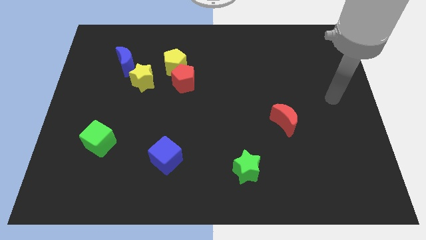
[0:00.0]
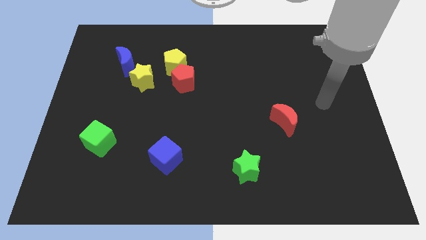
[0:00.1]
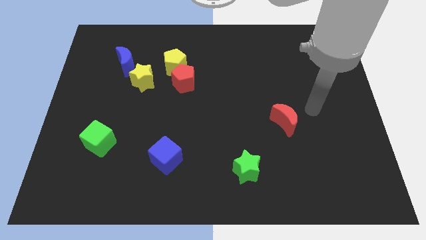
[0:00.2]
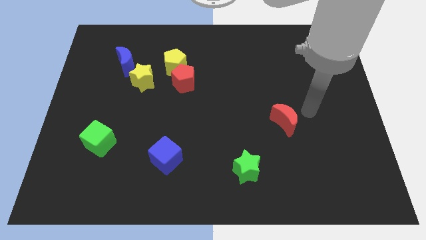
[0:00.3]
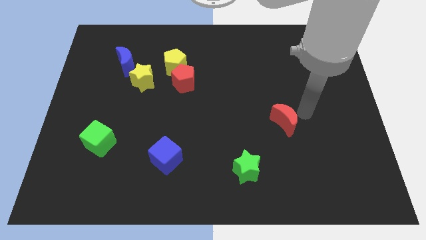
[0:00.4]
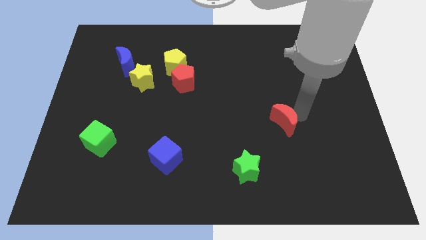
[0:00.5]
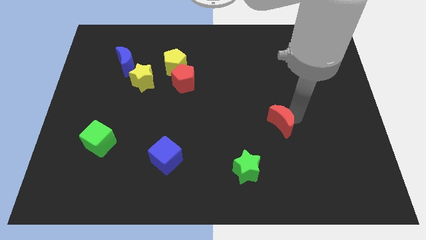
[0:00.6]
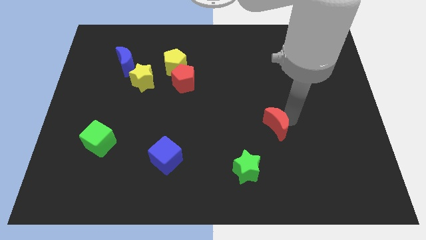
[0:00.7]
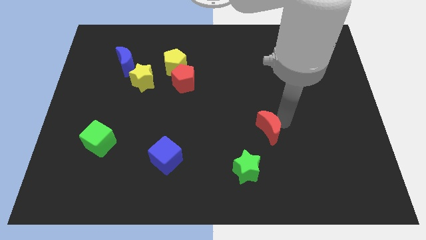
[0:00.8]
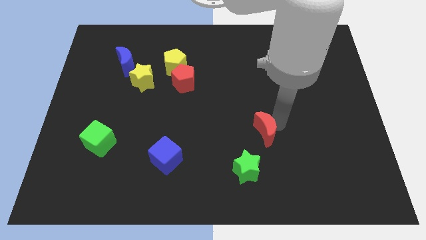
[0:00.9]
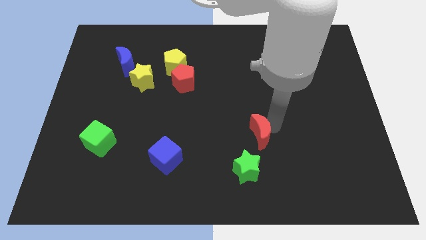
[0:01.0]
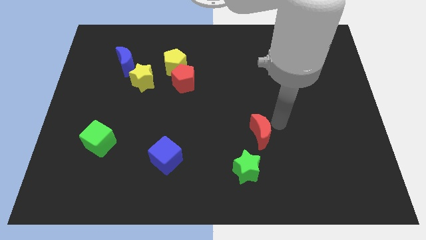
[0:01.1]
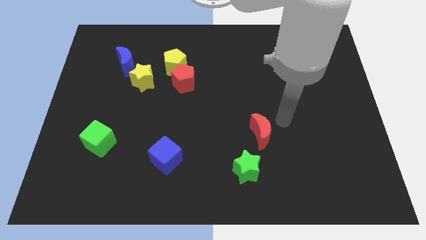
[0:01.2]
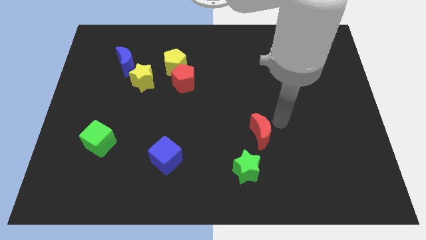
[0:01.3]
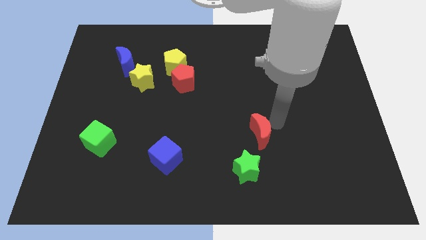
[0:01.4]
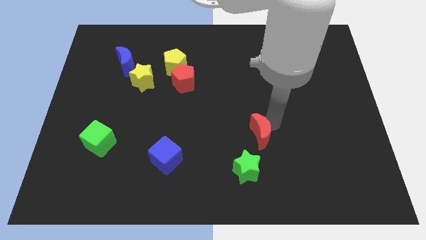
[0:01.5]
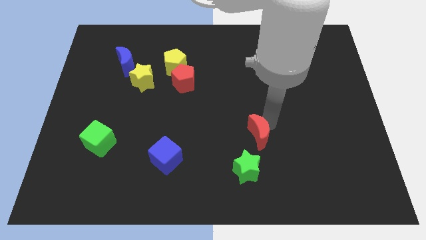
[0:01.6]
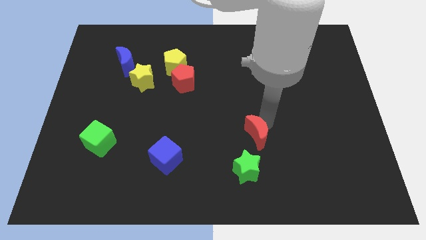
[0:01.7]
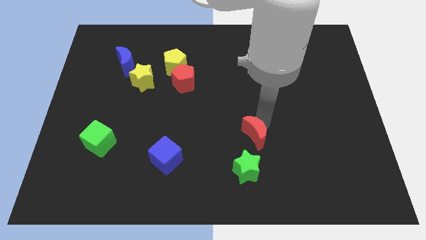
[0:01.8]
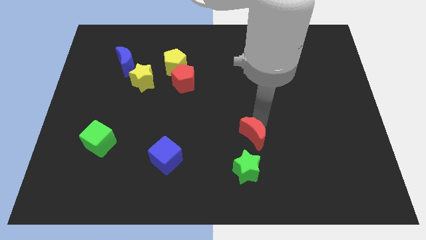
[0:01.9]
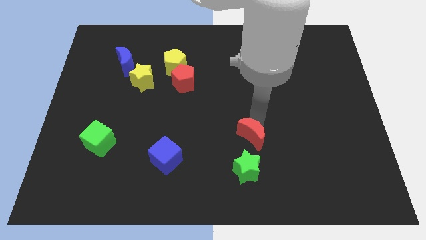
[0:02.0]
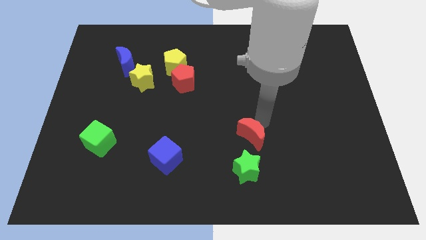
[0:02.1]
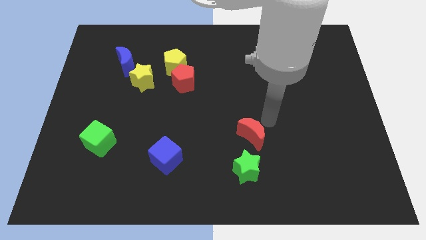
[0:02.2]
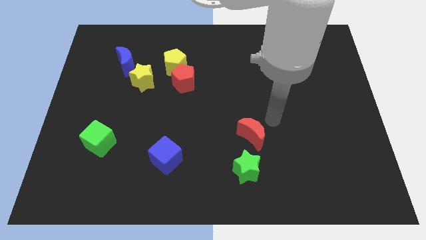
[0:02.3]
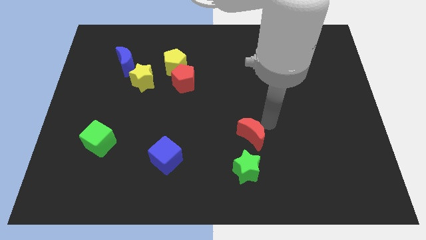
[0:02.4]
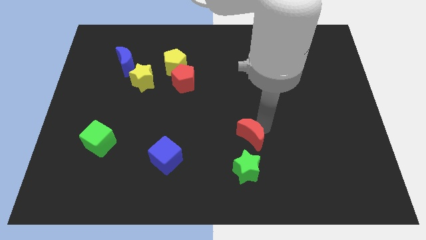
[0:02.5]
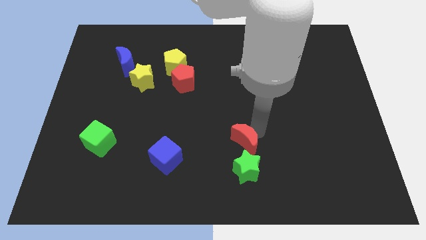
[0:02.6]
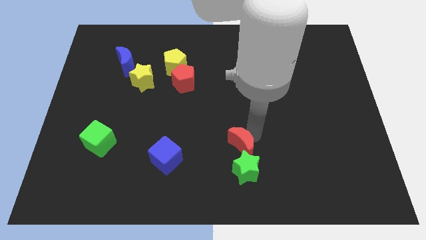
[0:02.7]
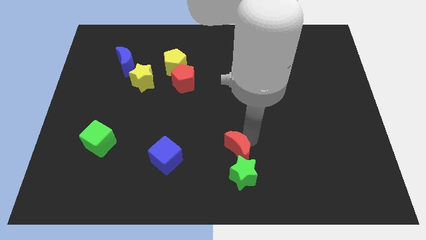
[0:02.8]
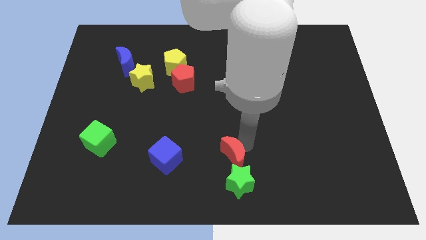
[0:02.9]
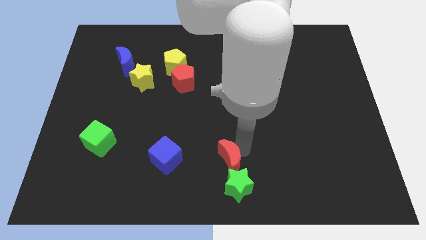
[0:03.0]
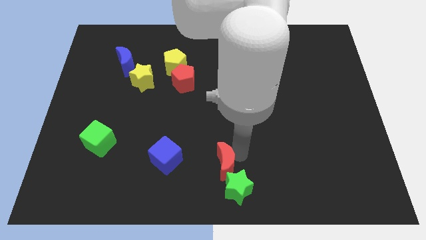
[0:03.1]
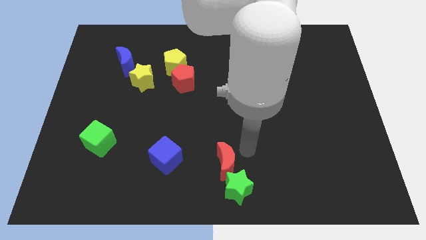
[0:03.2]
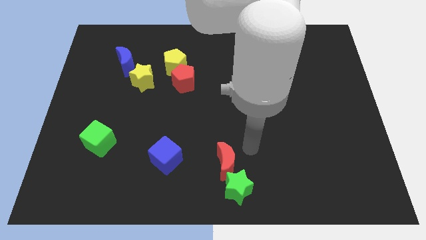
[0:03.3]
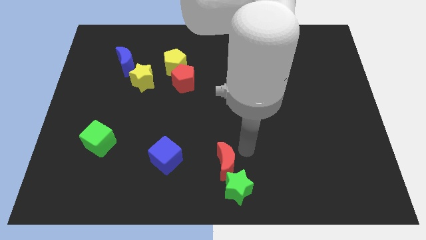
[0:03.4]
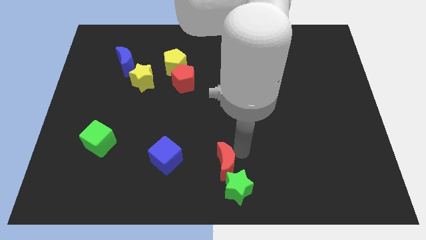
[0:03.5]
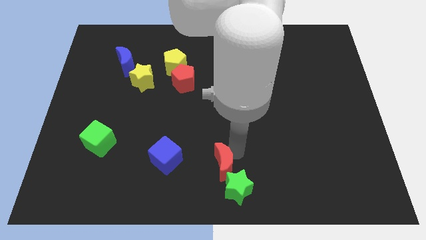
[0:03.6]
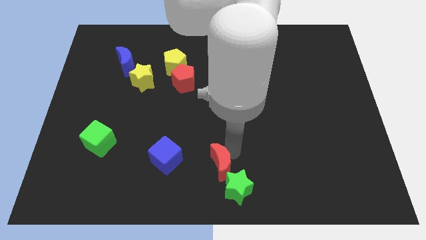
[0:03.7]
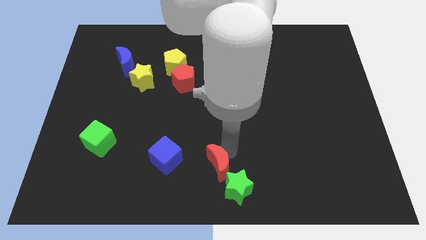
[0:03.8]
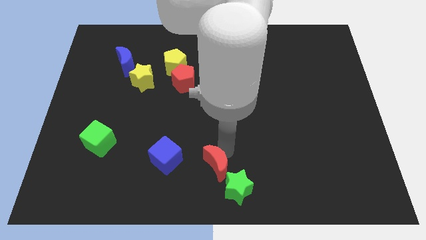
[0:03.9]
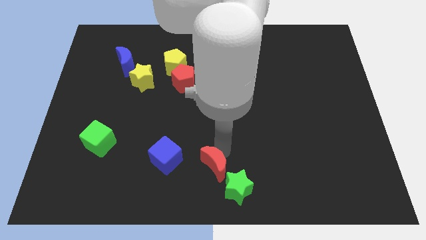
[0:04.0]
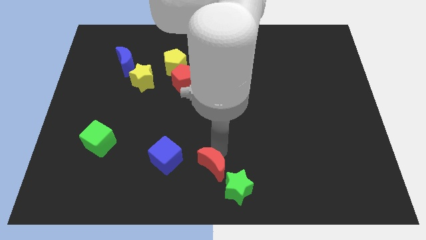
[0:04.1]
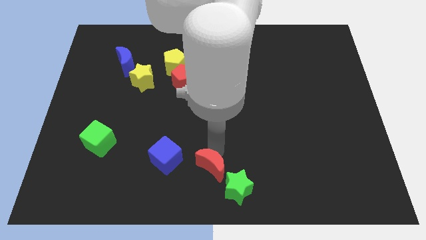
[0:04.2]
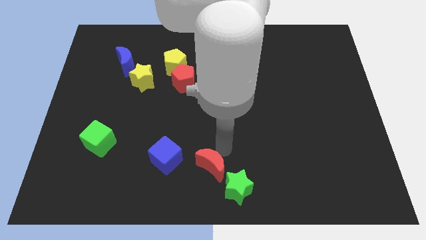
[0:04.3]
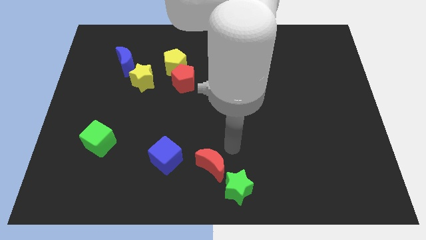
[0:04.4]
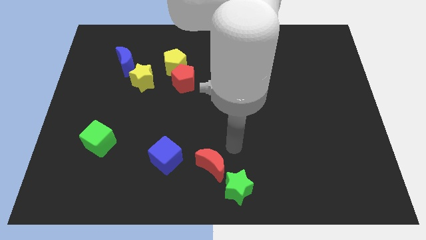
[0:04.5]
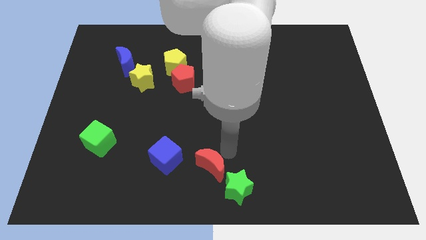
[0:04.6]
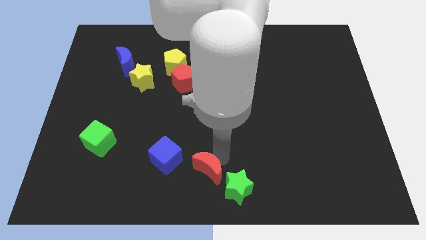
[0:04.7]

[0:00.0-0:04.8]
push the red moon just left of the green star

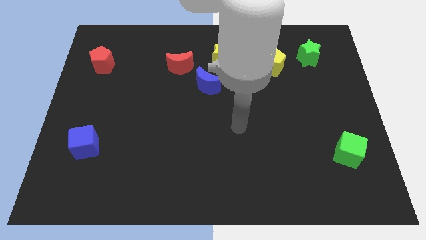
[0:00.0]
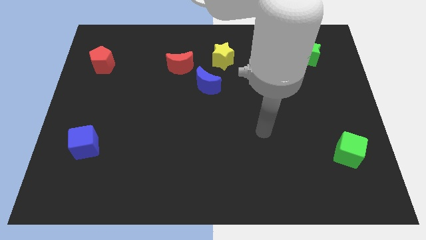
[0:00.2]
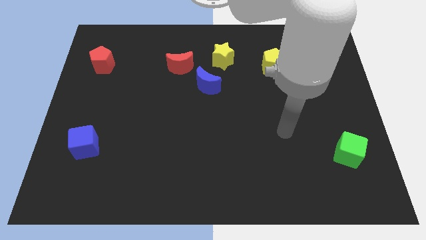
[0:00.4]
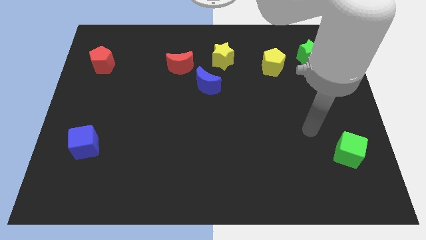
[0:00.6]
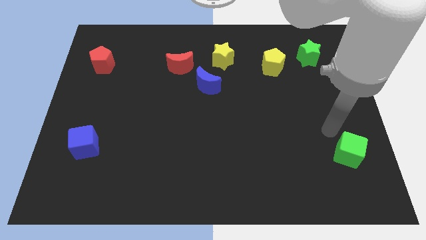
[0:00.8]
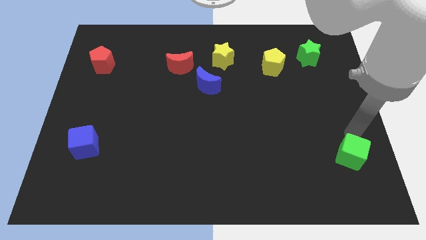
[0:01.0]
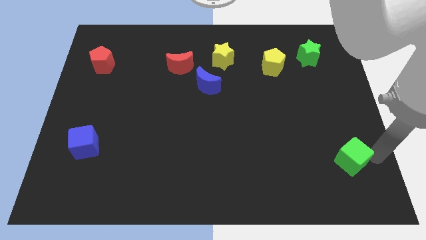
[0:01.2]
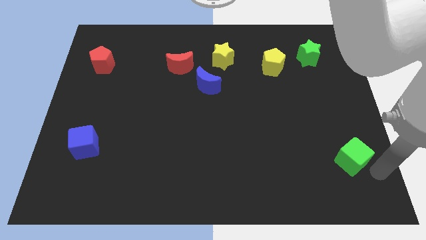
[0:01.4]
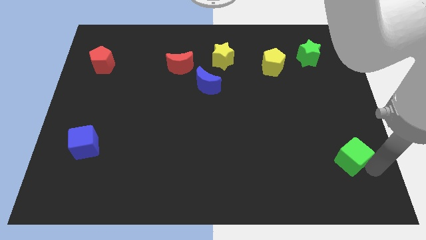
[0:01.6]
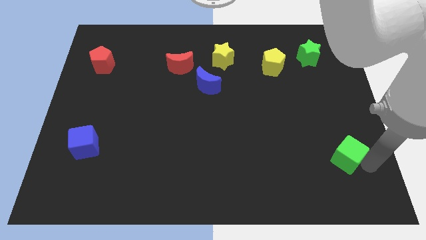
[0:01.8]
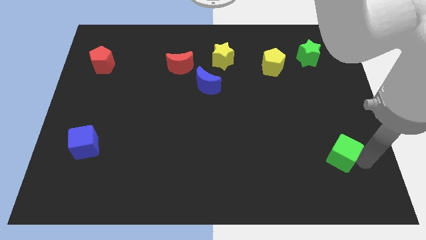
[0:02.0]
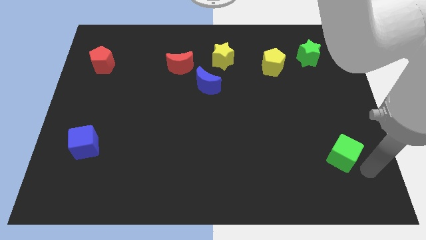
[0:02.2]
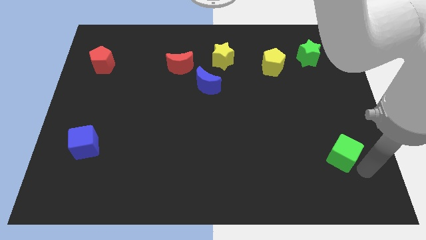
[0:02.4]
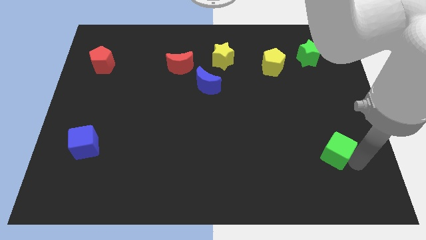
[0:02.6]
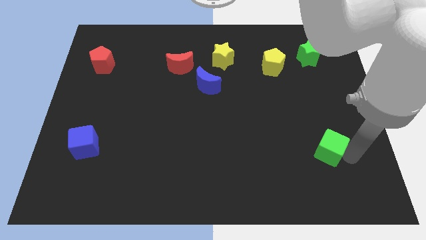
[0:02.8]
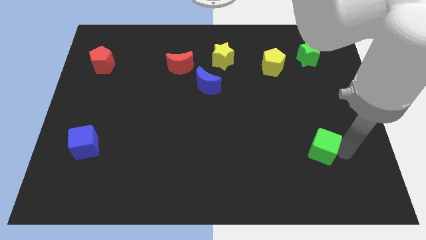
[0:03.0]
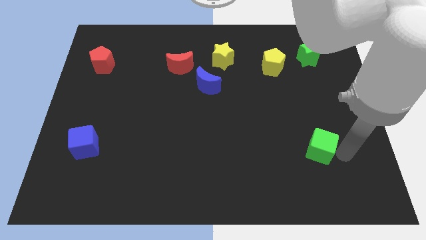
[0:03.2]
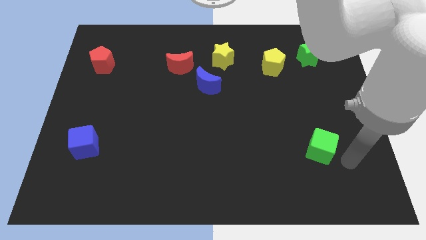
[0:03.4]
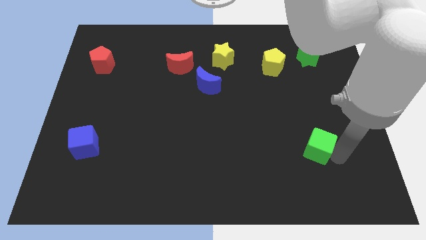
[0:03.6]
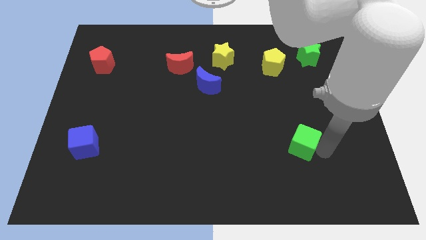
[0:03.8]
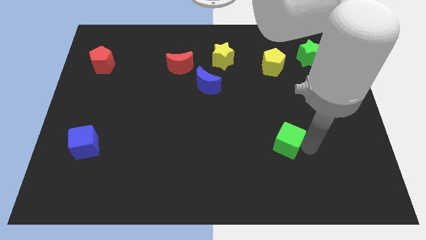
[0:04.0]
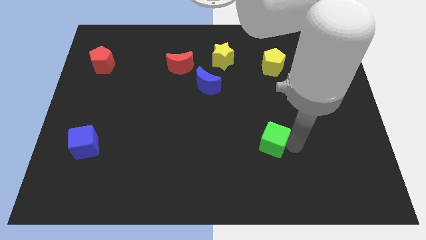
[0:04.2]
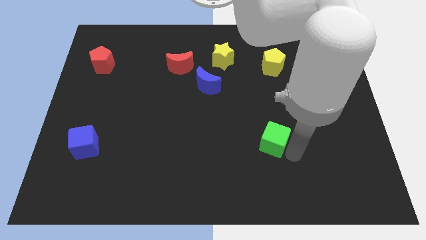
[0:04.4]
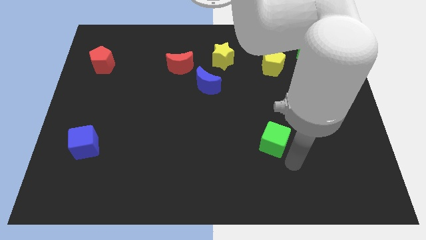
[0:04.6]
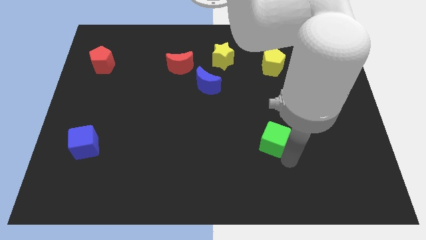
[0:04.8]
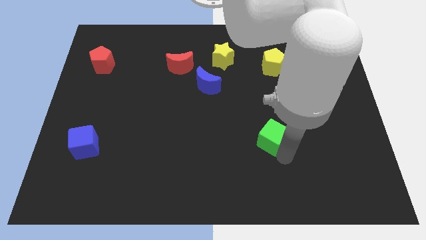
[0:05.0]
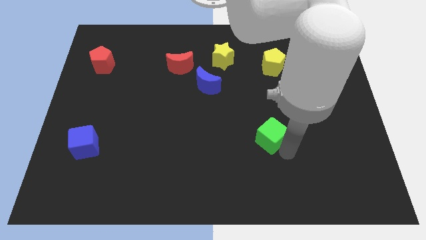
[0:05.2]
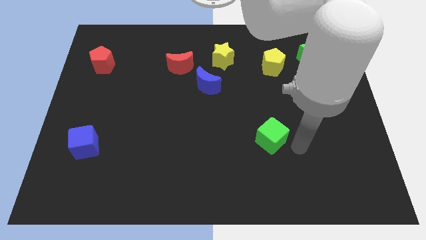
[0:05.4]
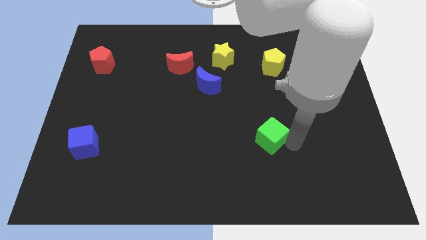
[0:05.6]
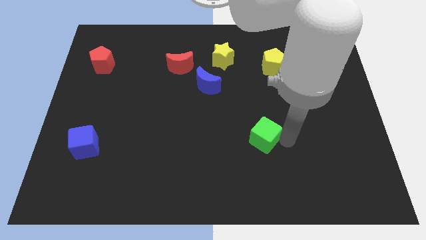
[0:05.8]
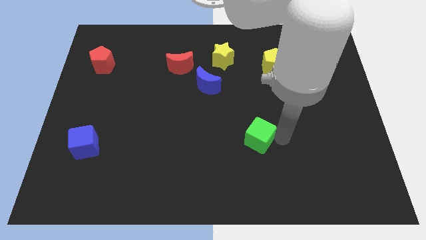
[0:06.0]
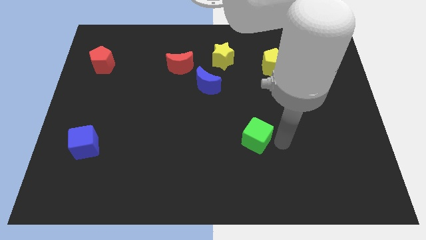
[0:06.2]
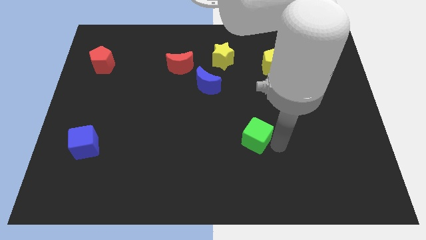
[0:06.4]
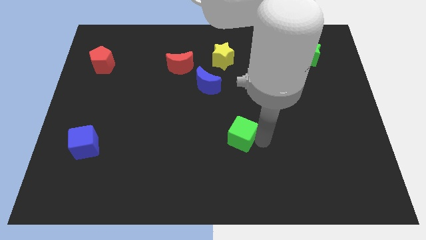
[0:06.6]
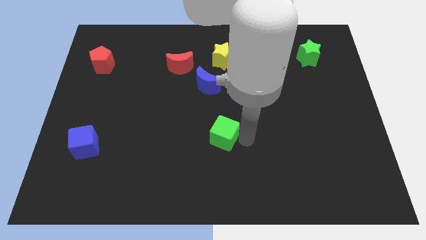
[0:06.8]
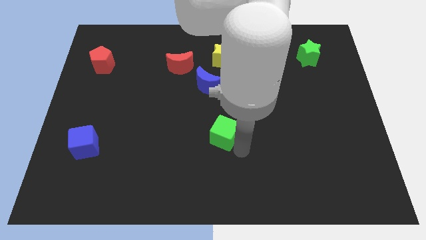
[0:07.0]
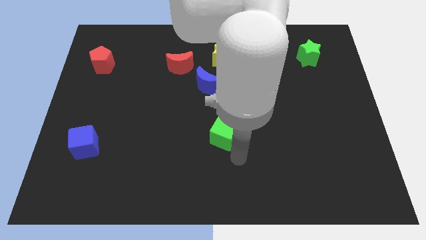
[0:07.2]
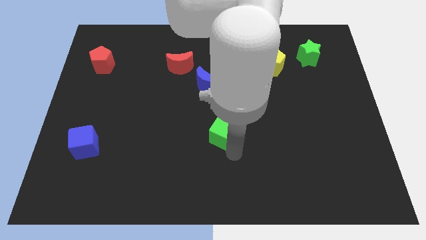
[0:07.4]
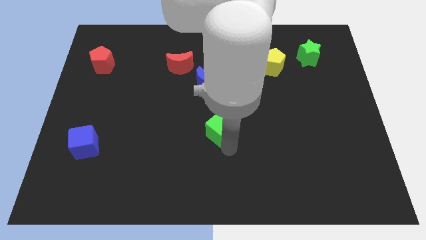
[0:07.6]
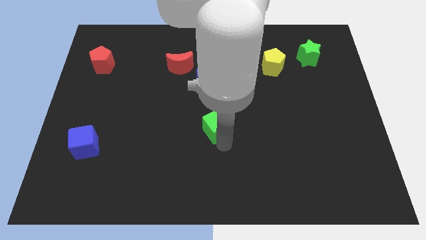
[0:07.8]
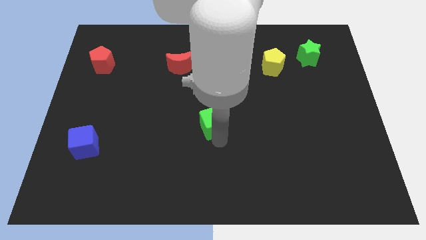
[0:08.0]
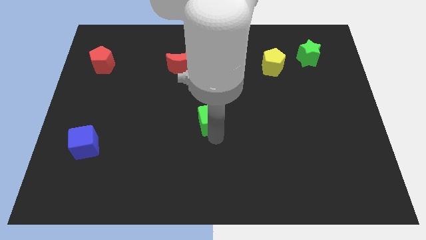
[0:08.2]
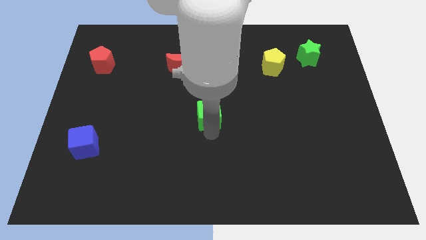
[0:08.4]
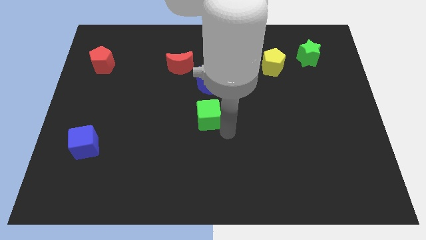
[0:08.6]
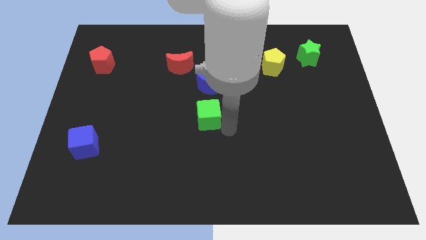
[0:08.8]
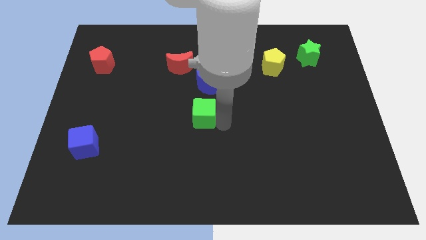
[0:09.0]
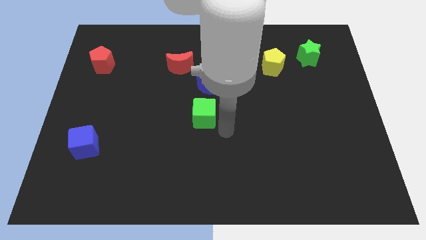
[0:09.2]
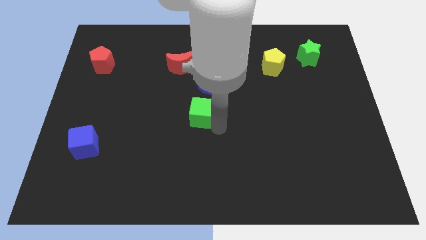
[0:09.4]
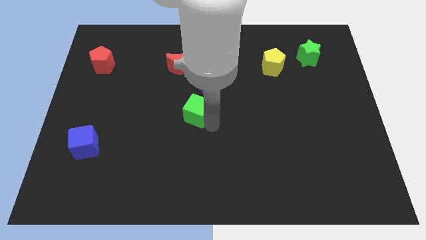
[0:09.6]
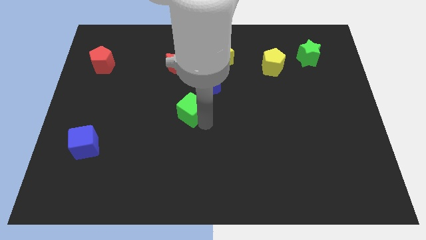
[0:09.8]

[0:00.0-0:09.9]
push the green cube below the red moon
